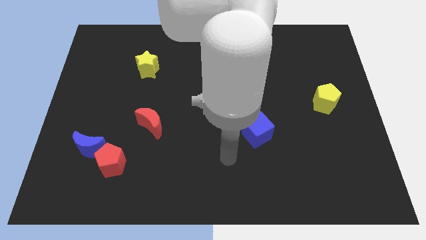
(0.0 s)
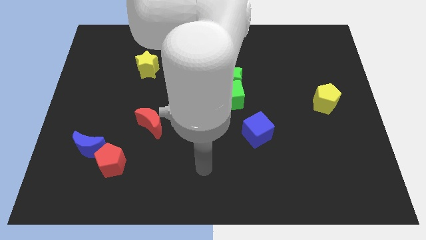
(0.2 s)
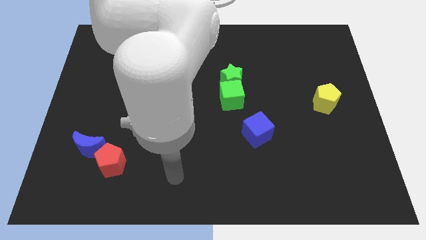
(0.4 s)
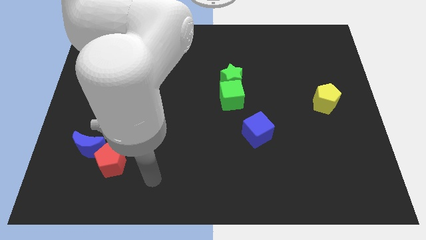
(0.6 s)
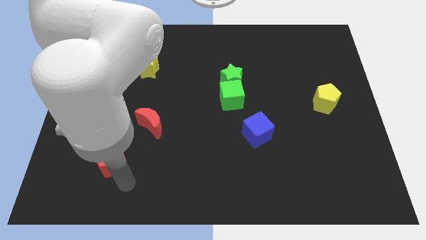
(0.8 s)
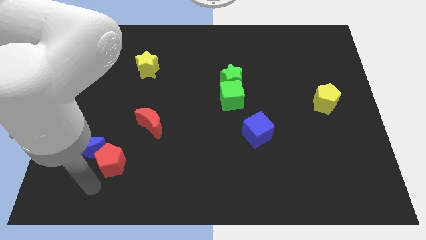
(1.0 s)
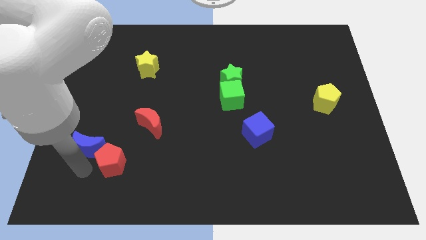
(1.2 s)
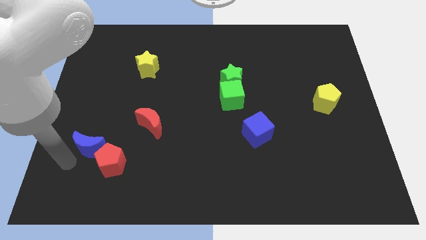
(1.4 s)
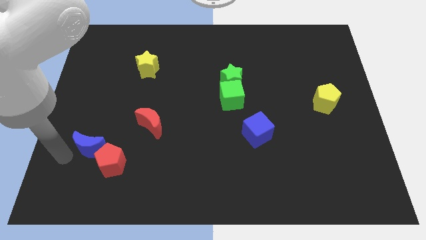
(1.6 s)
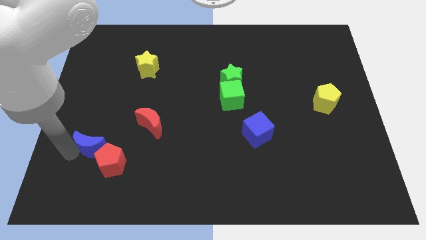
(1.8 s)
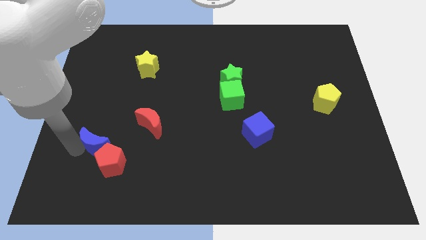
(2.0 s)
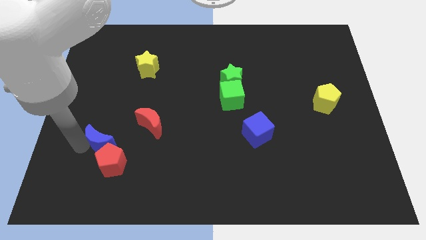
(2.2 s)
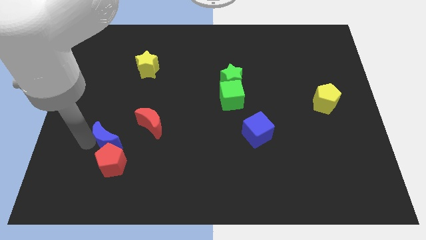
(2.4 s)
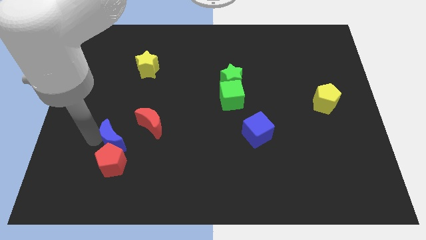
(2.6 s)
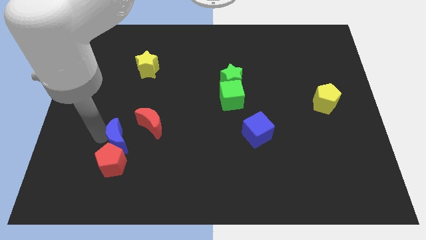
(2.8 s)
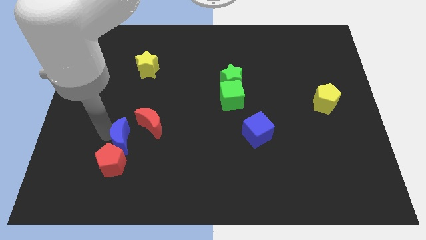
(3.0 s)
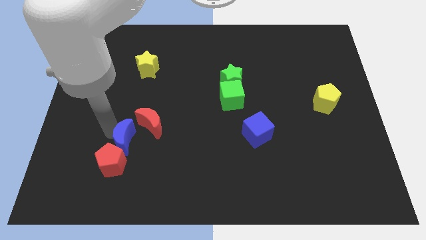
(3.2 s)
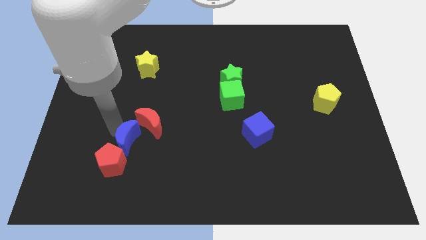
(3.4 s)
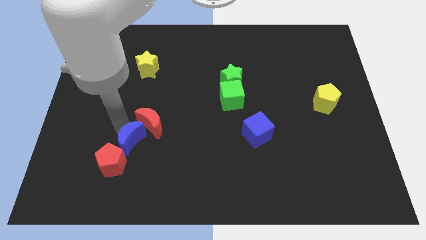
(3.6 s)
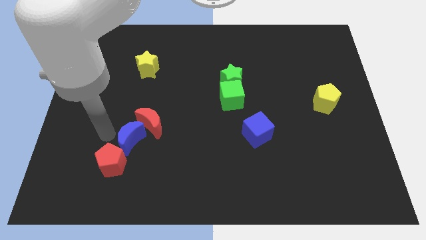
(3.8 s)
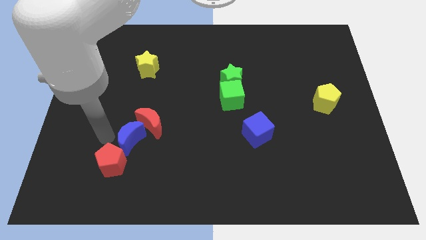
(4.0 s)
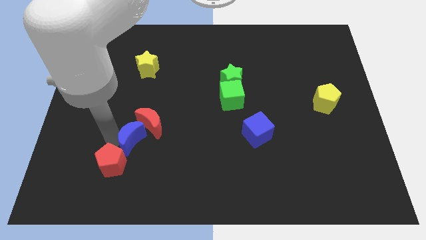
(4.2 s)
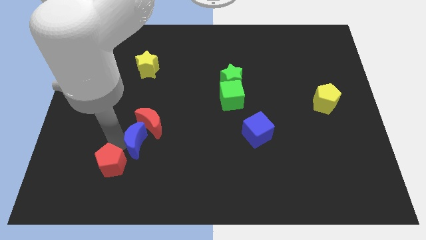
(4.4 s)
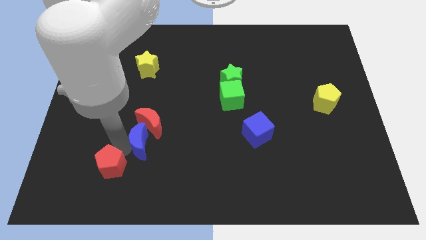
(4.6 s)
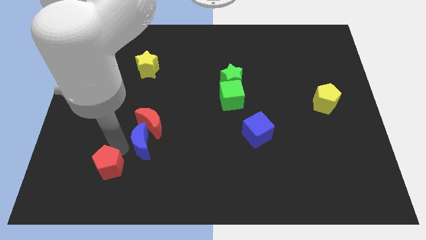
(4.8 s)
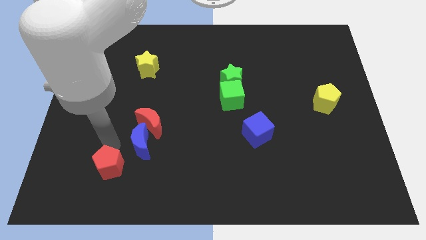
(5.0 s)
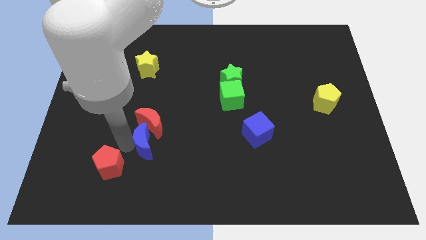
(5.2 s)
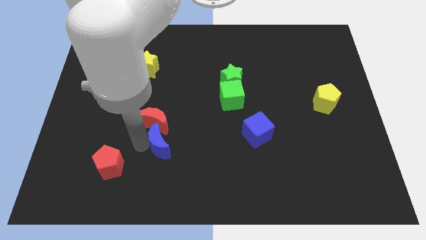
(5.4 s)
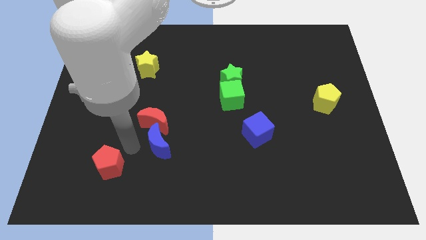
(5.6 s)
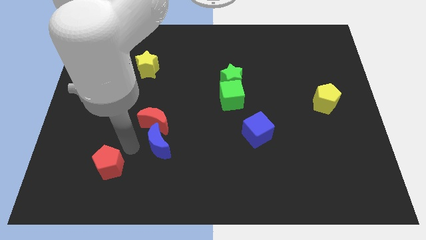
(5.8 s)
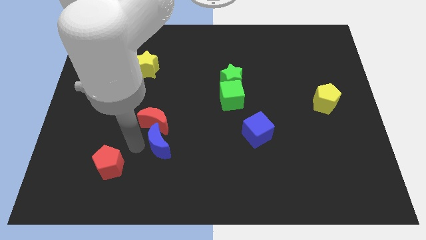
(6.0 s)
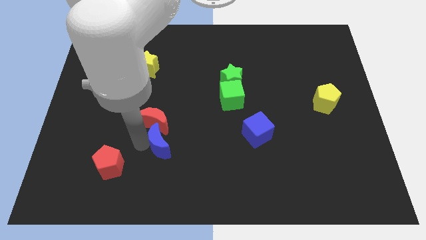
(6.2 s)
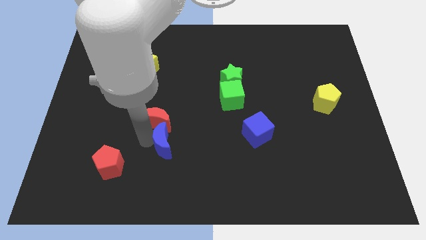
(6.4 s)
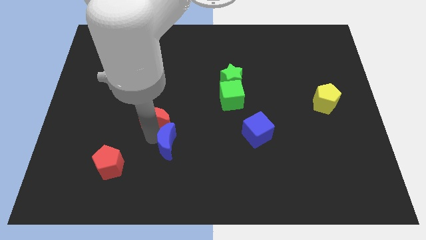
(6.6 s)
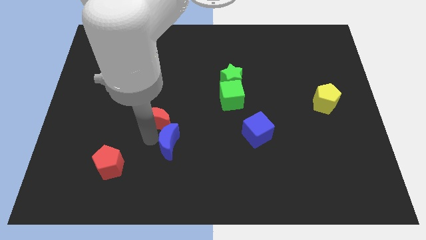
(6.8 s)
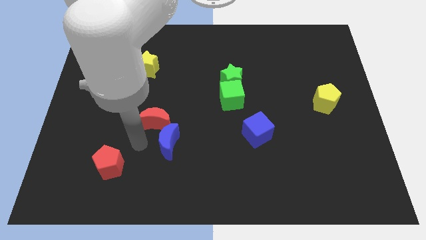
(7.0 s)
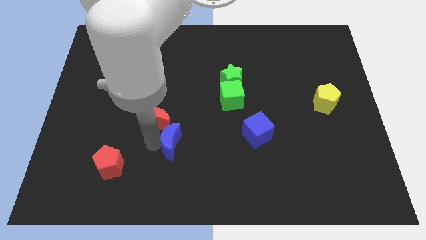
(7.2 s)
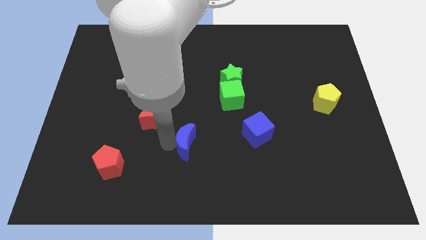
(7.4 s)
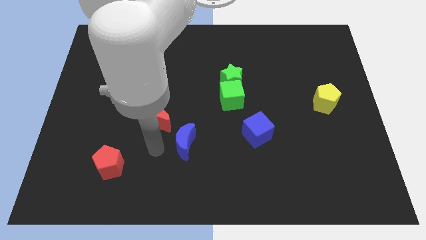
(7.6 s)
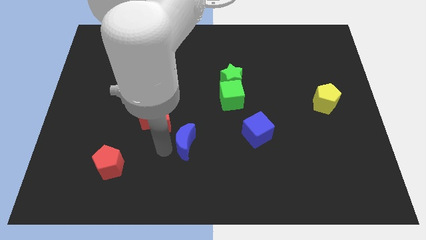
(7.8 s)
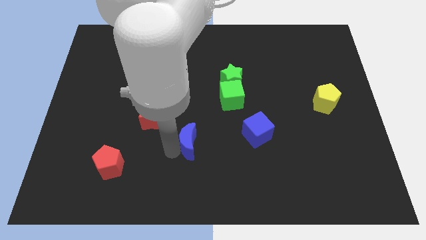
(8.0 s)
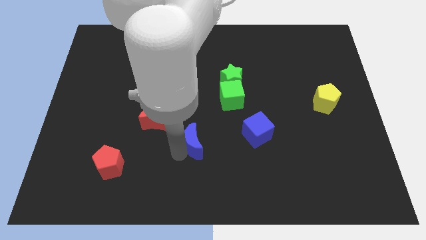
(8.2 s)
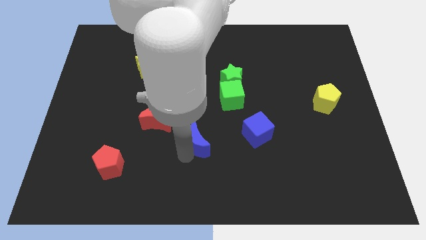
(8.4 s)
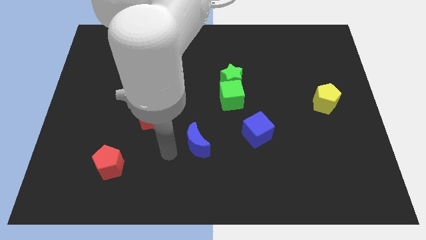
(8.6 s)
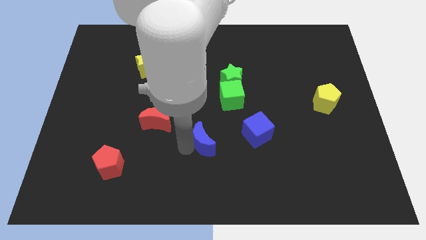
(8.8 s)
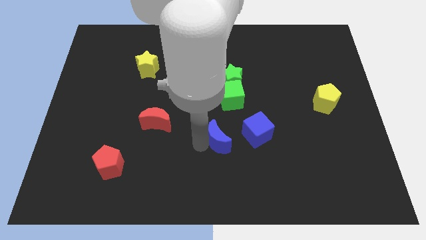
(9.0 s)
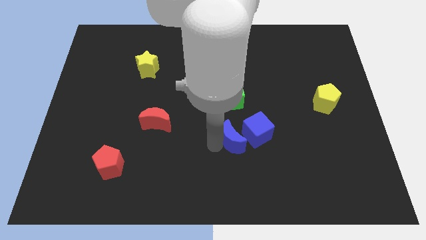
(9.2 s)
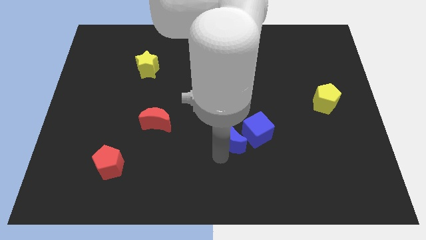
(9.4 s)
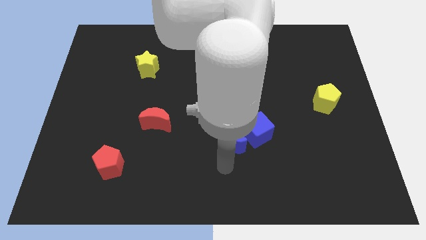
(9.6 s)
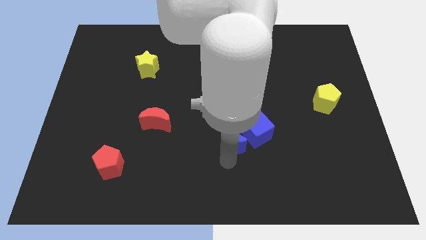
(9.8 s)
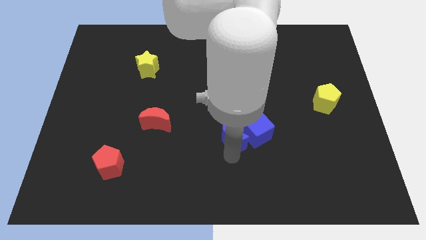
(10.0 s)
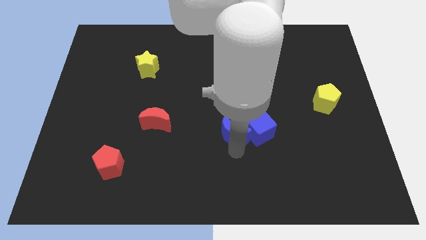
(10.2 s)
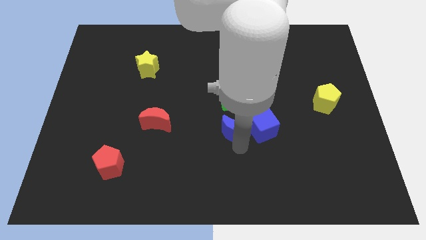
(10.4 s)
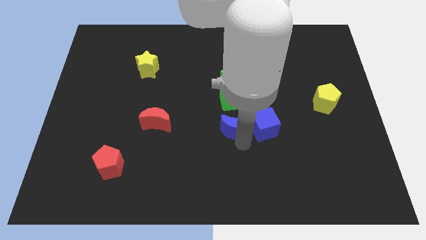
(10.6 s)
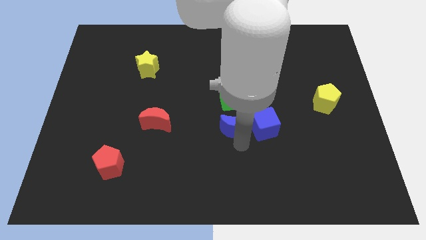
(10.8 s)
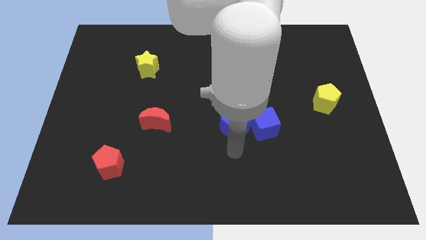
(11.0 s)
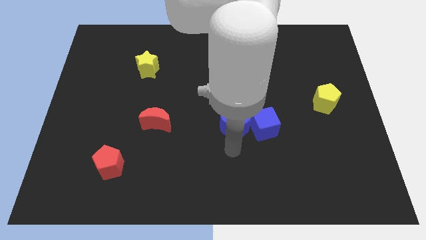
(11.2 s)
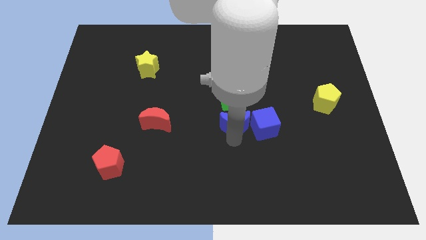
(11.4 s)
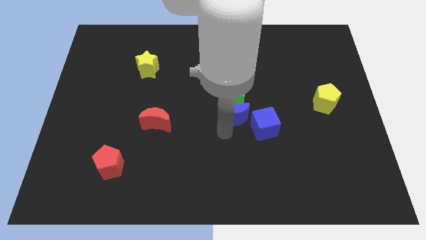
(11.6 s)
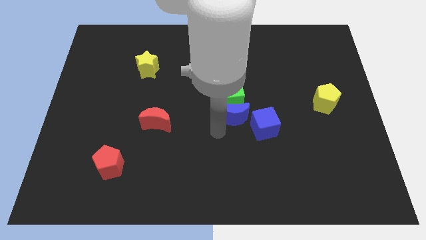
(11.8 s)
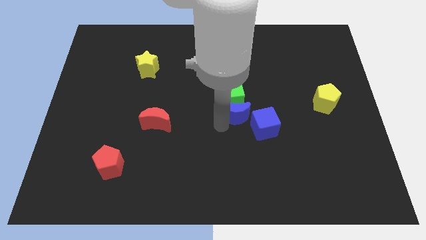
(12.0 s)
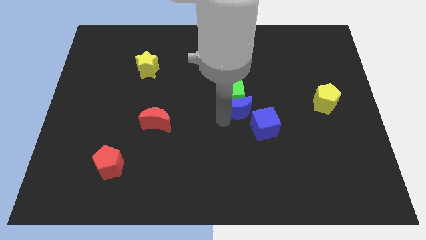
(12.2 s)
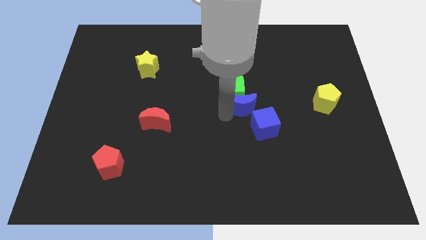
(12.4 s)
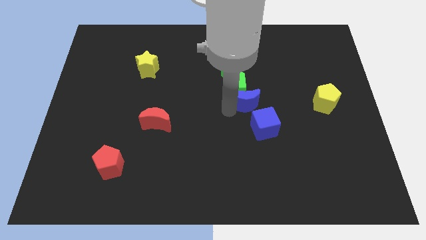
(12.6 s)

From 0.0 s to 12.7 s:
put the blue moon to the bottom right of the green star
